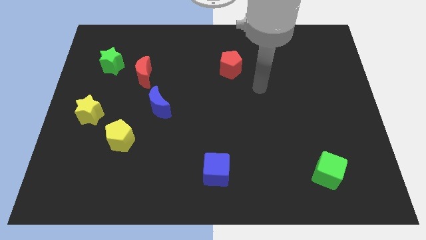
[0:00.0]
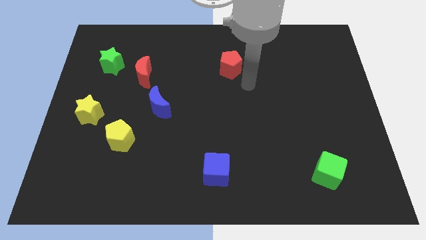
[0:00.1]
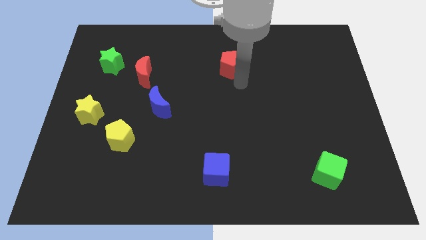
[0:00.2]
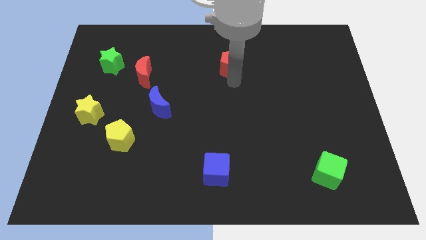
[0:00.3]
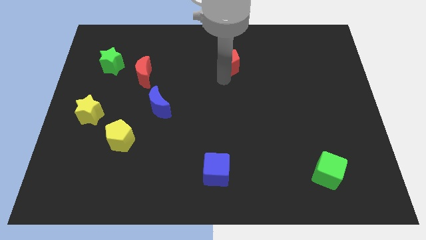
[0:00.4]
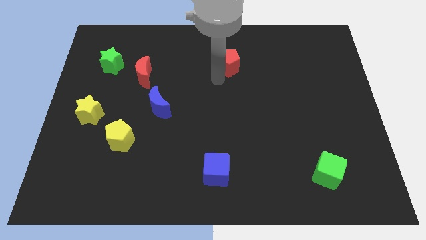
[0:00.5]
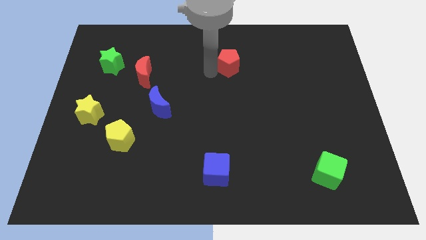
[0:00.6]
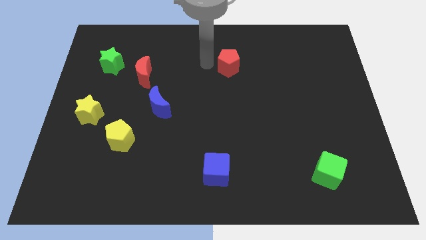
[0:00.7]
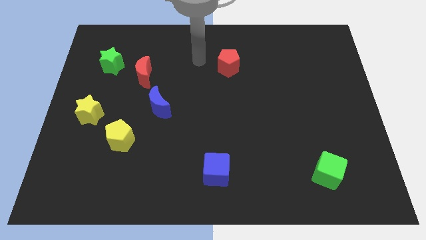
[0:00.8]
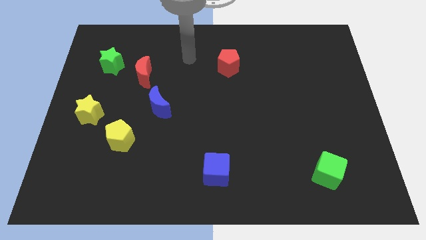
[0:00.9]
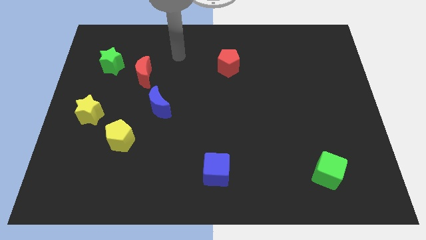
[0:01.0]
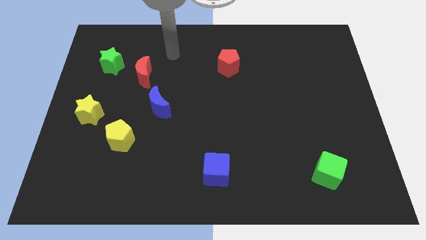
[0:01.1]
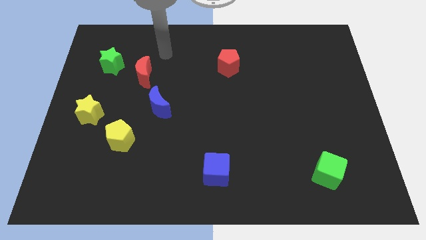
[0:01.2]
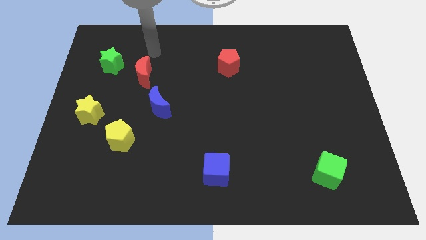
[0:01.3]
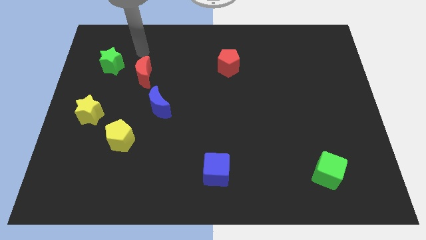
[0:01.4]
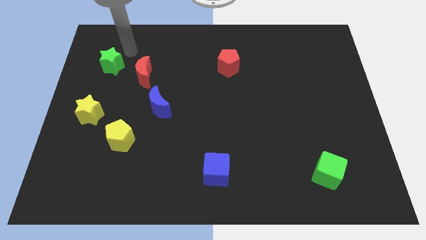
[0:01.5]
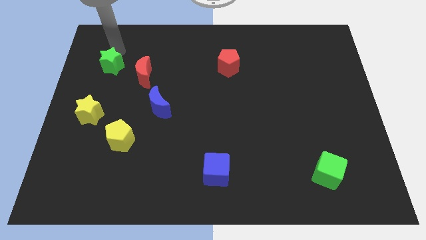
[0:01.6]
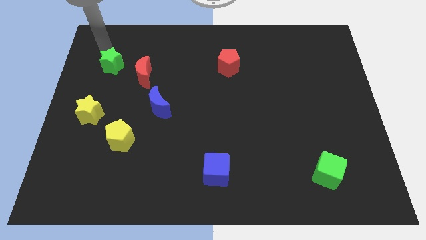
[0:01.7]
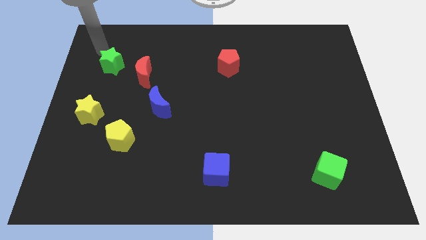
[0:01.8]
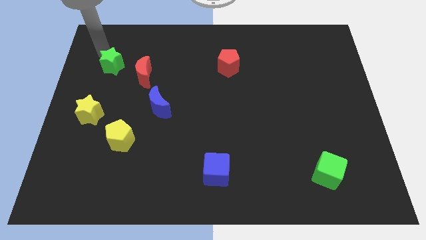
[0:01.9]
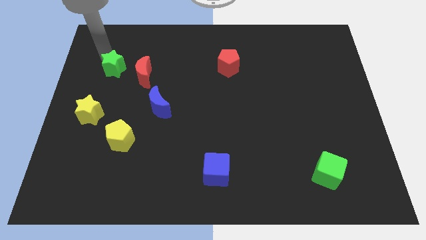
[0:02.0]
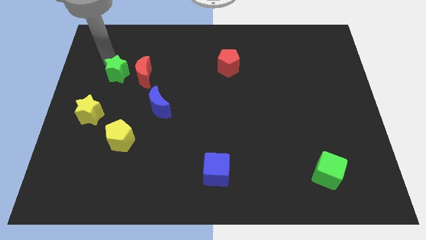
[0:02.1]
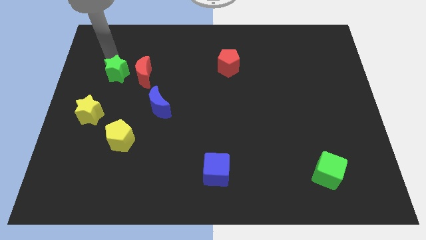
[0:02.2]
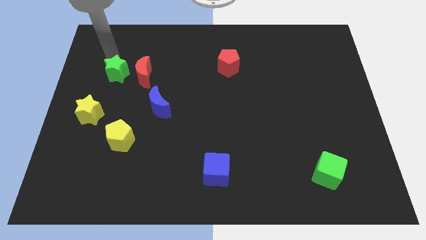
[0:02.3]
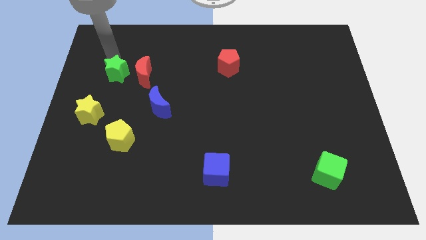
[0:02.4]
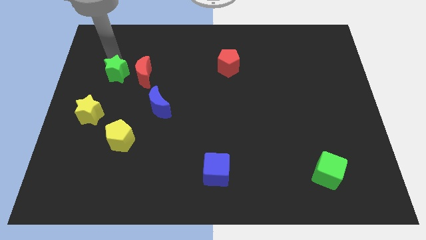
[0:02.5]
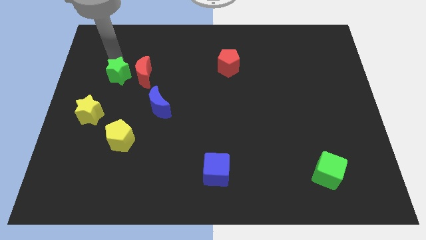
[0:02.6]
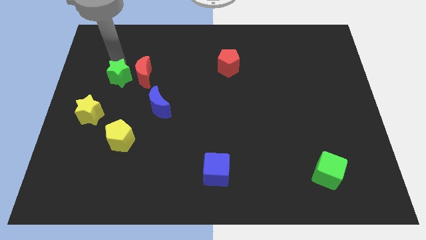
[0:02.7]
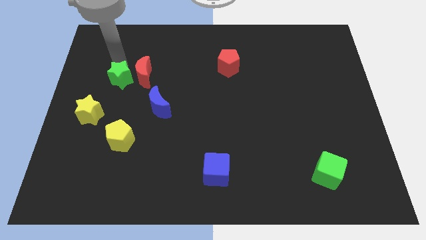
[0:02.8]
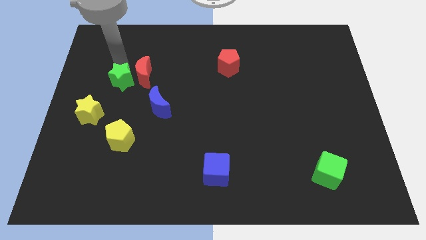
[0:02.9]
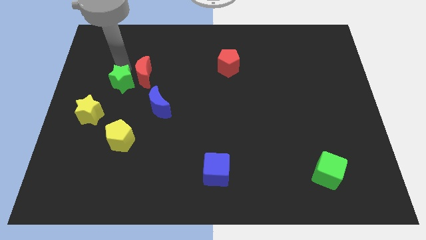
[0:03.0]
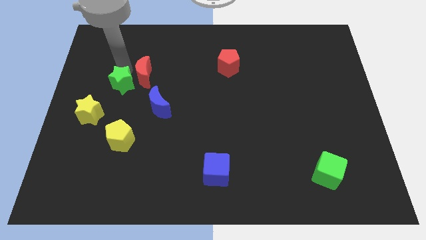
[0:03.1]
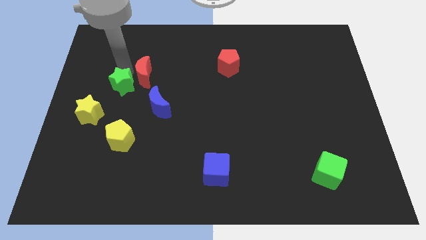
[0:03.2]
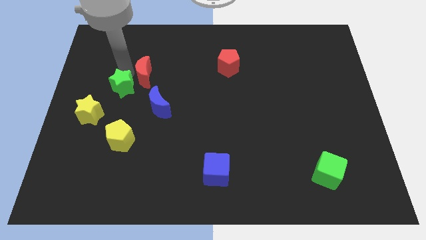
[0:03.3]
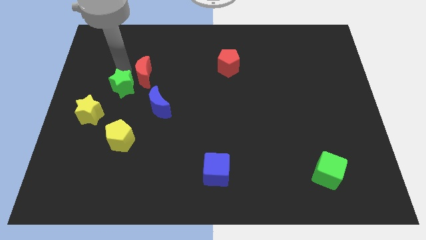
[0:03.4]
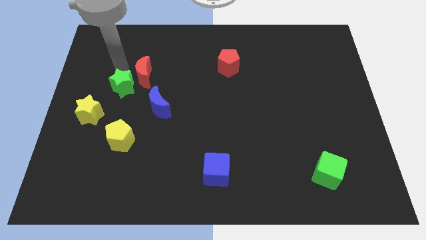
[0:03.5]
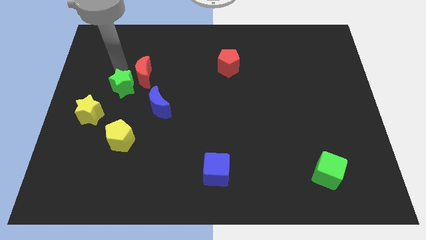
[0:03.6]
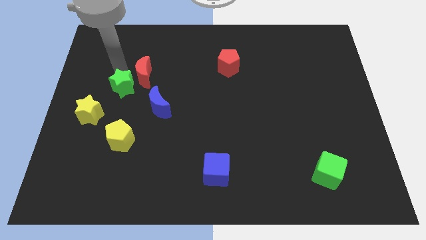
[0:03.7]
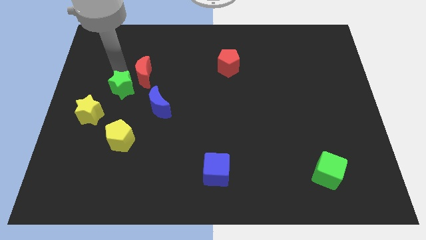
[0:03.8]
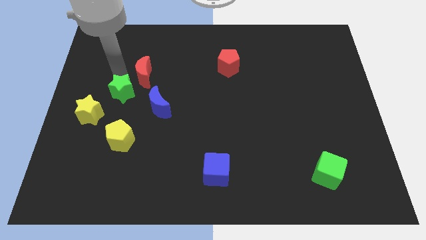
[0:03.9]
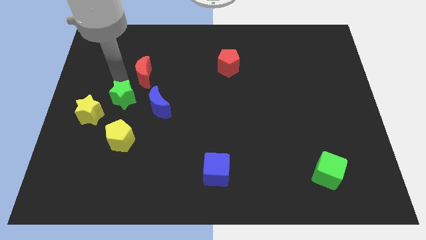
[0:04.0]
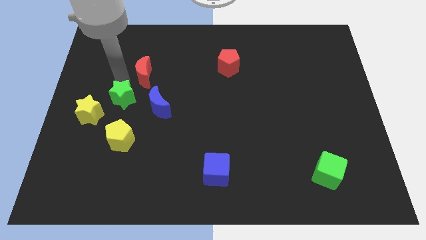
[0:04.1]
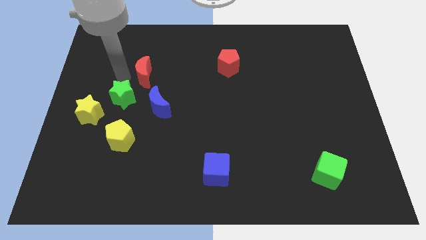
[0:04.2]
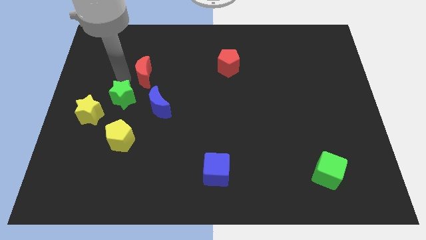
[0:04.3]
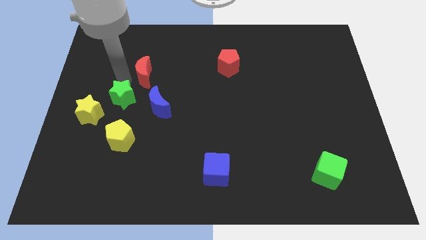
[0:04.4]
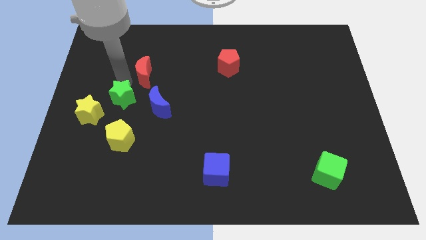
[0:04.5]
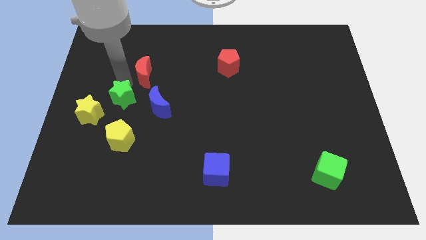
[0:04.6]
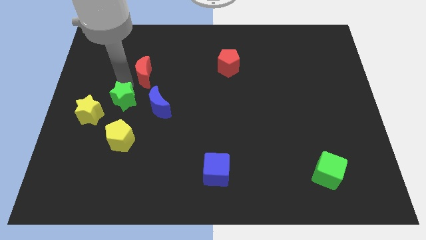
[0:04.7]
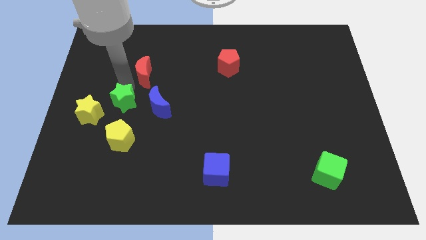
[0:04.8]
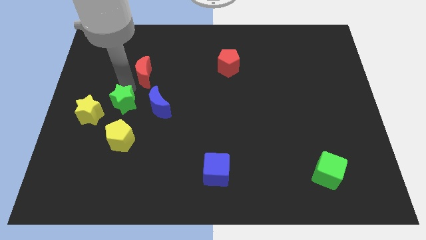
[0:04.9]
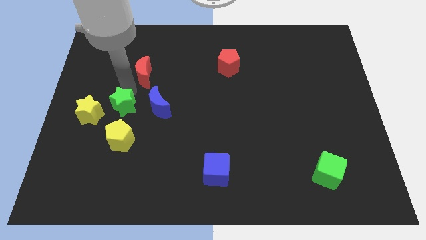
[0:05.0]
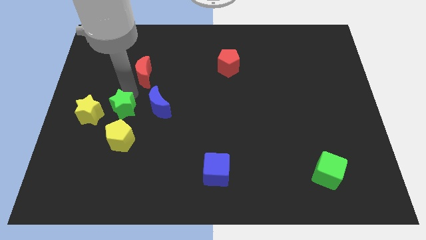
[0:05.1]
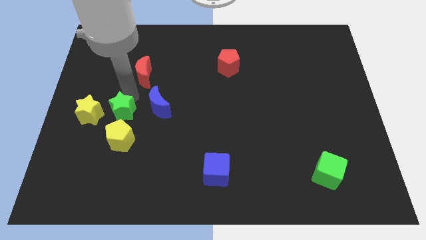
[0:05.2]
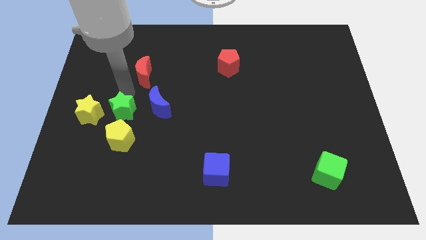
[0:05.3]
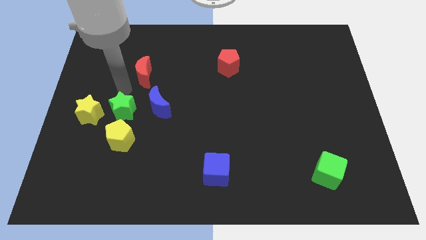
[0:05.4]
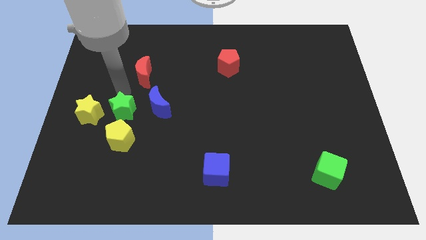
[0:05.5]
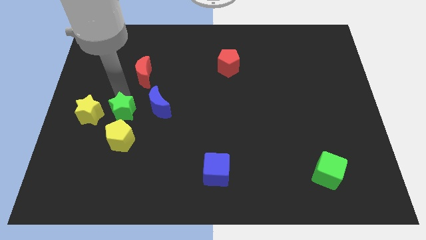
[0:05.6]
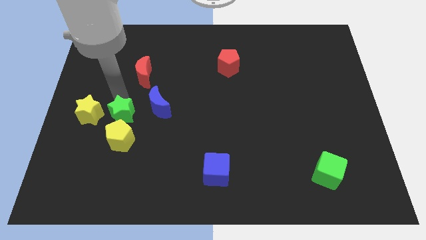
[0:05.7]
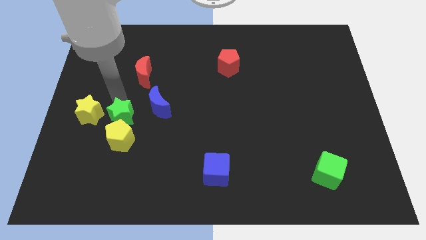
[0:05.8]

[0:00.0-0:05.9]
move the green star to the yellow pentagon
